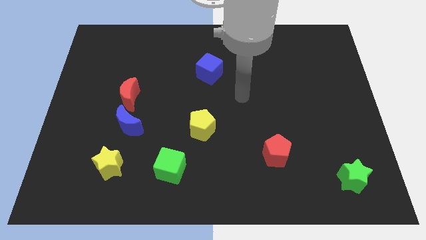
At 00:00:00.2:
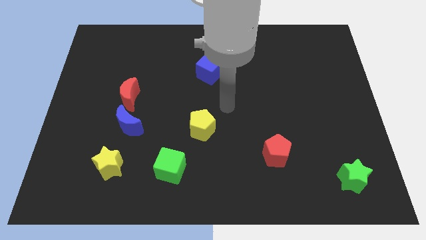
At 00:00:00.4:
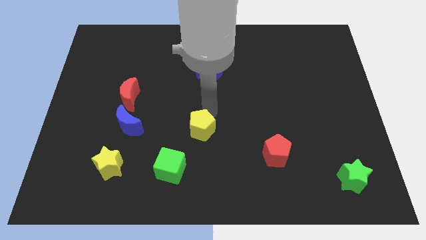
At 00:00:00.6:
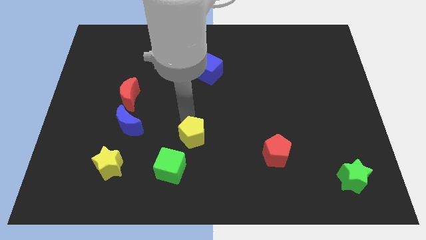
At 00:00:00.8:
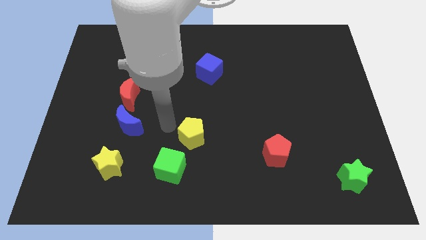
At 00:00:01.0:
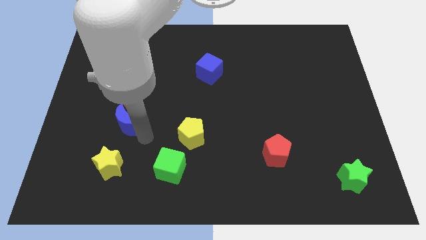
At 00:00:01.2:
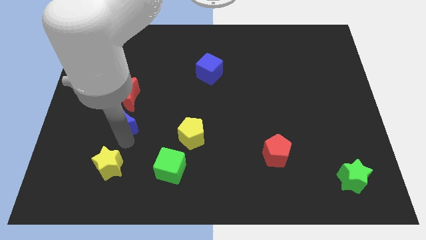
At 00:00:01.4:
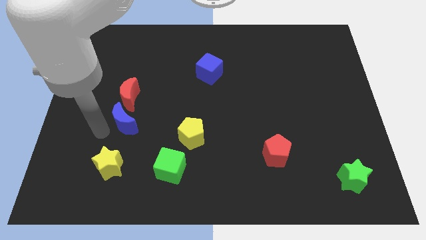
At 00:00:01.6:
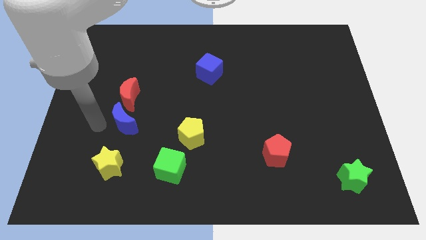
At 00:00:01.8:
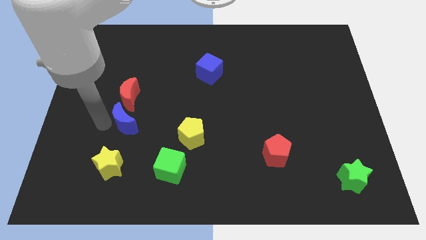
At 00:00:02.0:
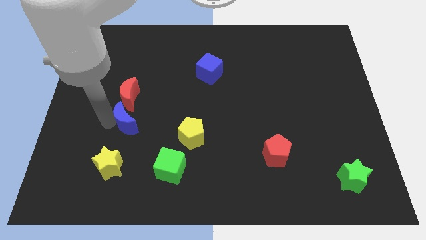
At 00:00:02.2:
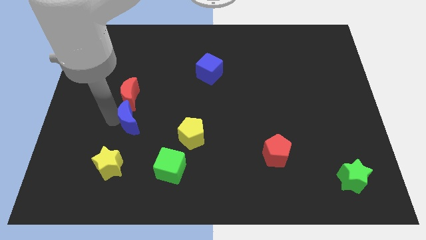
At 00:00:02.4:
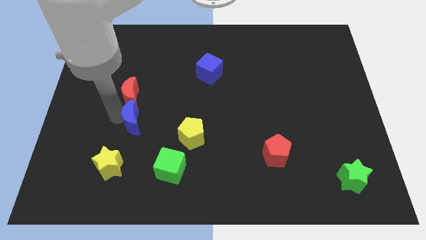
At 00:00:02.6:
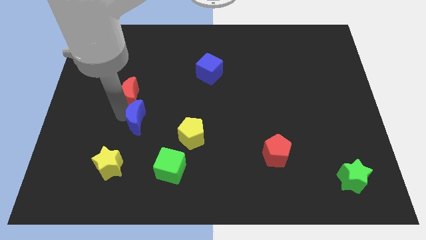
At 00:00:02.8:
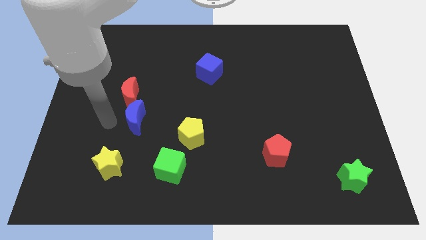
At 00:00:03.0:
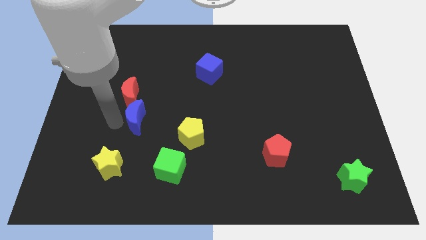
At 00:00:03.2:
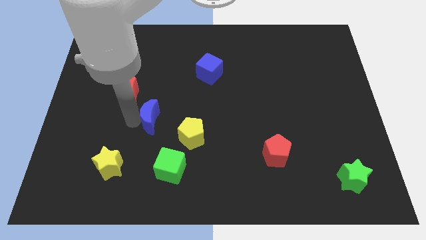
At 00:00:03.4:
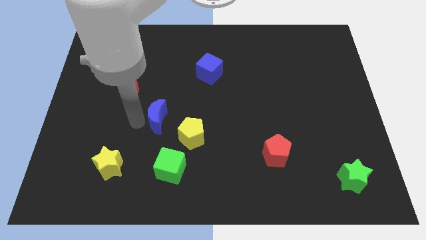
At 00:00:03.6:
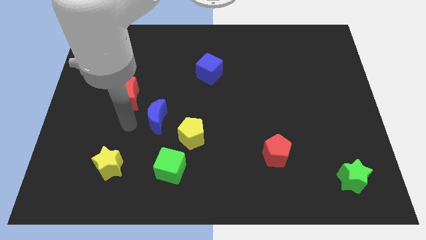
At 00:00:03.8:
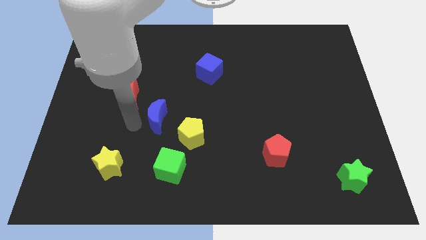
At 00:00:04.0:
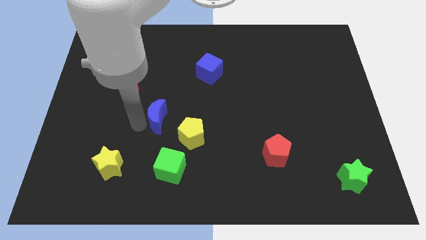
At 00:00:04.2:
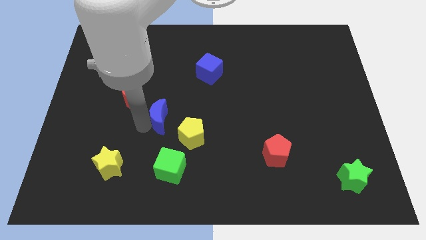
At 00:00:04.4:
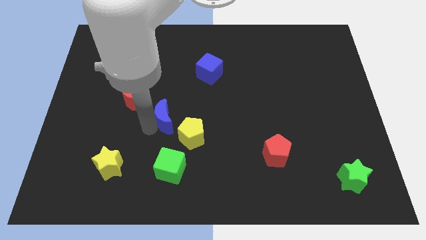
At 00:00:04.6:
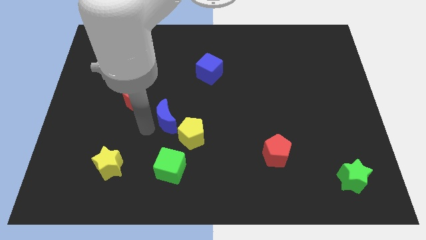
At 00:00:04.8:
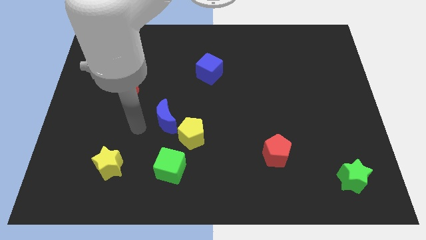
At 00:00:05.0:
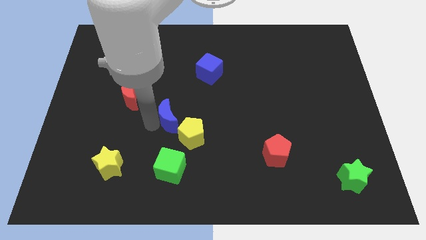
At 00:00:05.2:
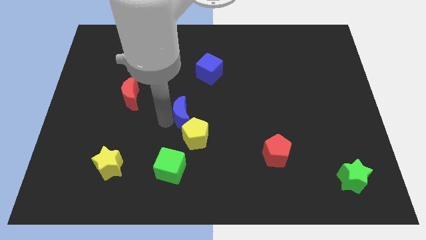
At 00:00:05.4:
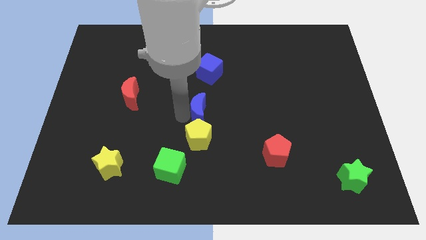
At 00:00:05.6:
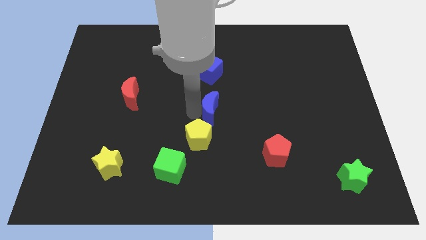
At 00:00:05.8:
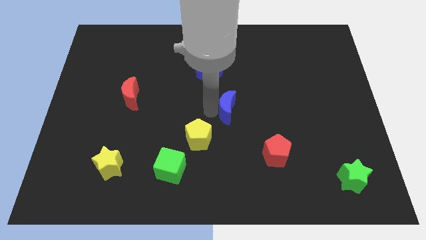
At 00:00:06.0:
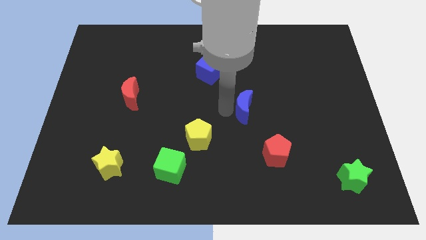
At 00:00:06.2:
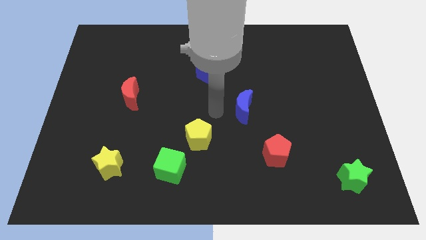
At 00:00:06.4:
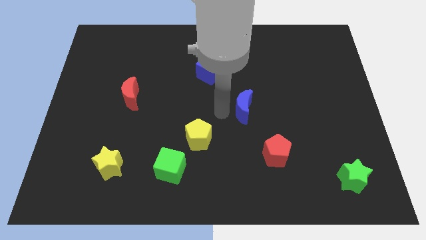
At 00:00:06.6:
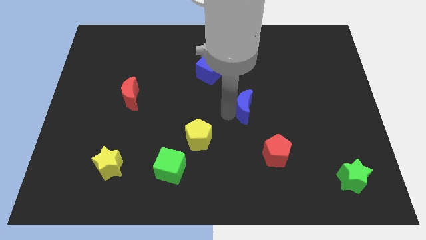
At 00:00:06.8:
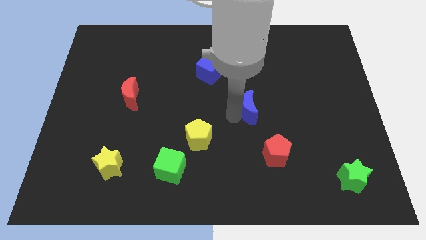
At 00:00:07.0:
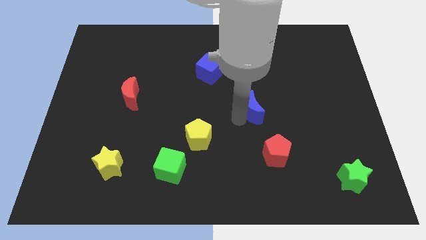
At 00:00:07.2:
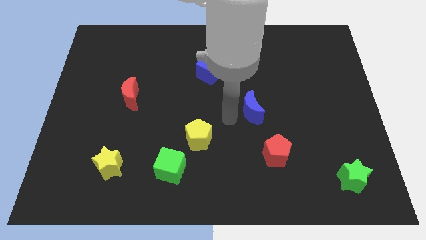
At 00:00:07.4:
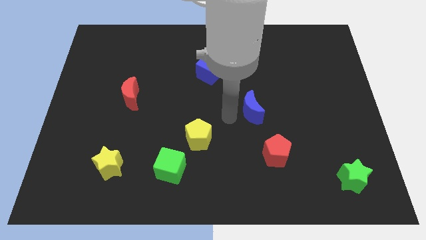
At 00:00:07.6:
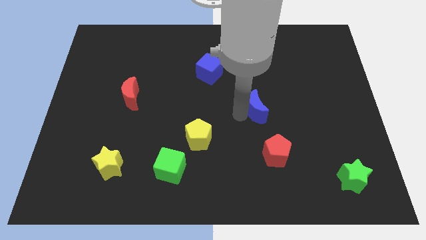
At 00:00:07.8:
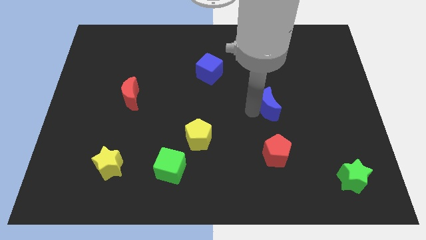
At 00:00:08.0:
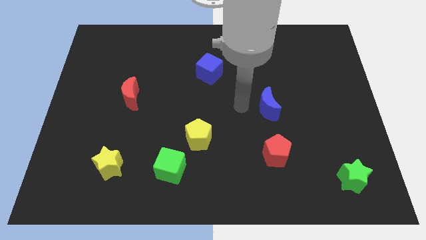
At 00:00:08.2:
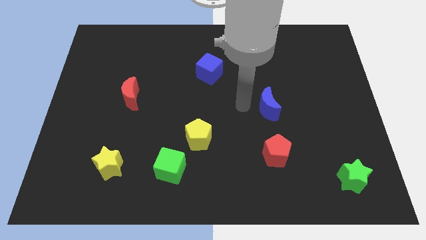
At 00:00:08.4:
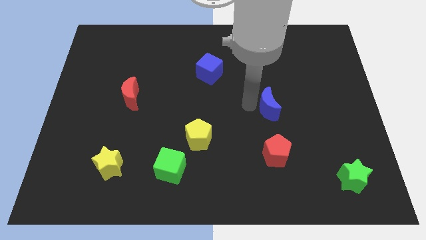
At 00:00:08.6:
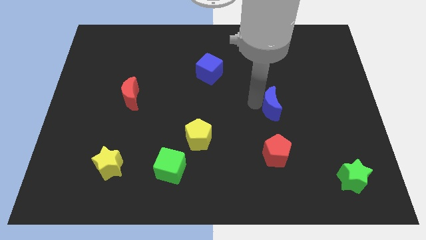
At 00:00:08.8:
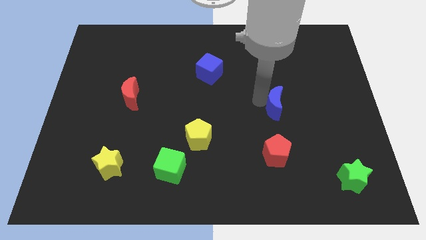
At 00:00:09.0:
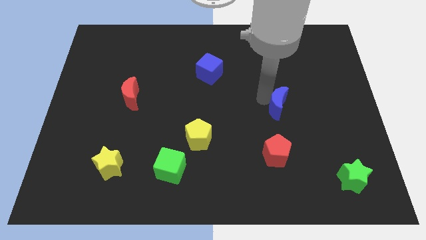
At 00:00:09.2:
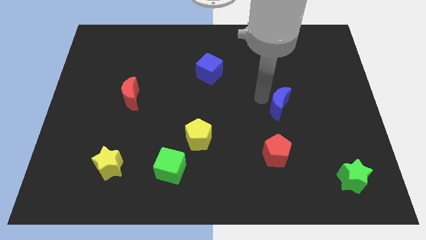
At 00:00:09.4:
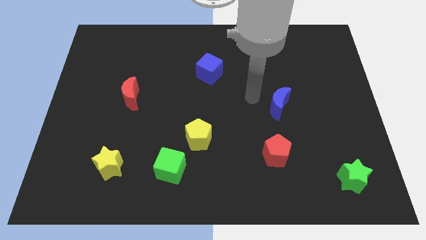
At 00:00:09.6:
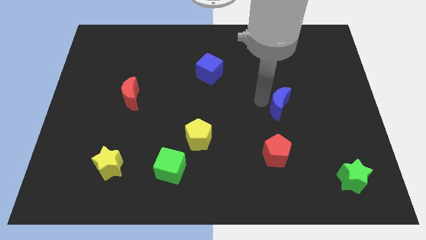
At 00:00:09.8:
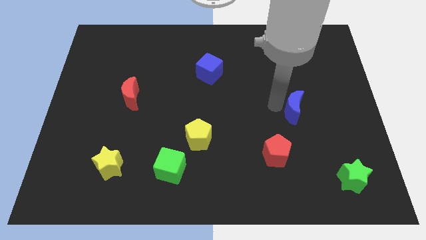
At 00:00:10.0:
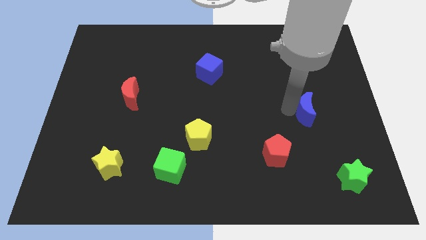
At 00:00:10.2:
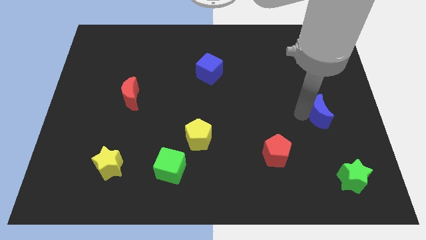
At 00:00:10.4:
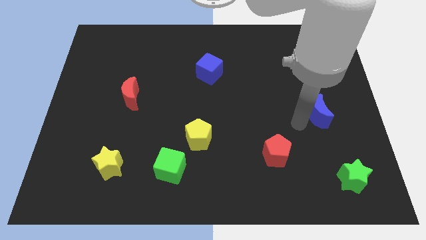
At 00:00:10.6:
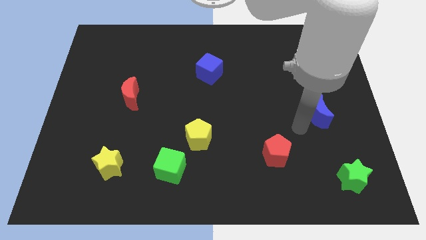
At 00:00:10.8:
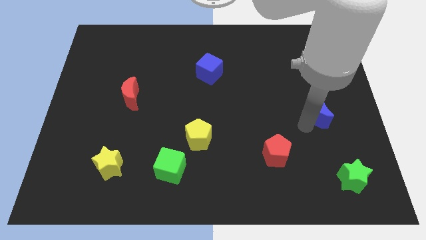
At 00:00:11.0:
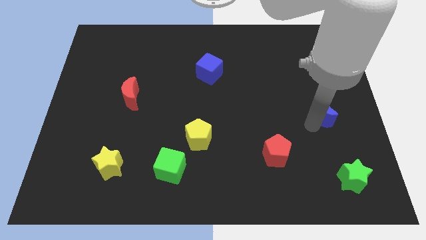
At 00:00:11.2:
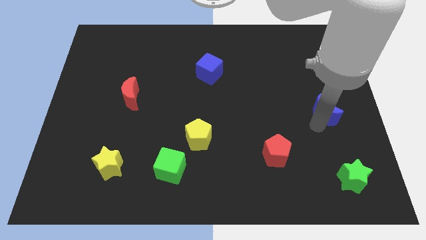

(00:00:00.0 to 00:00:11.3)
put the blue moon to the right side

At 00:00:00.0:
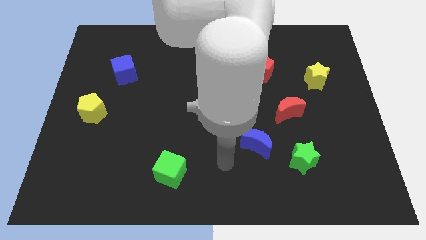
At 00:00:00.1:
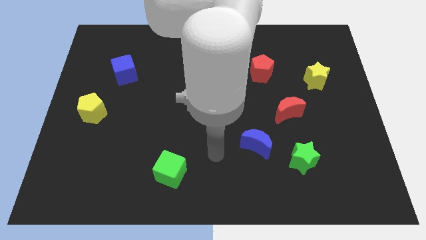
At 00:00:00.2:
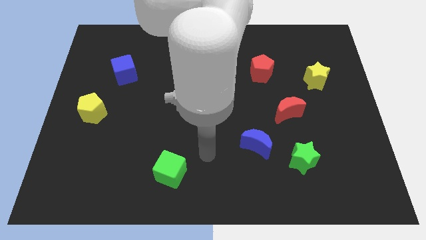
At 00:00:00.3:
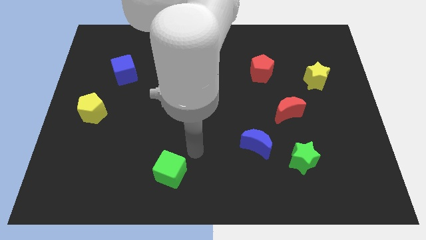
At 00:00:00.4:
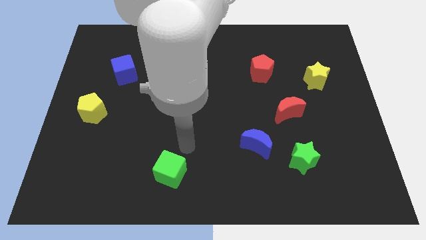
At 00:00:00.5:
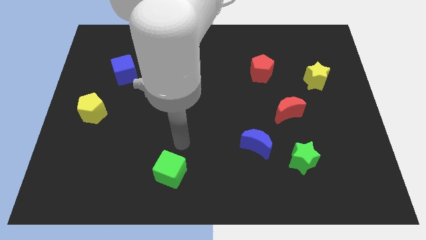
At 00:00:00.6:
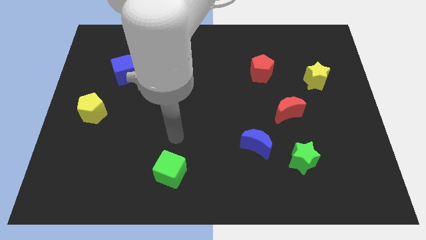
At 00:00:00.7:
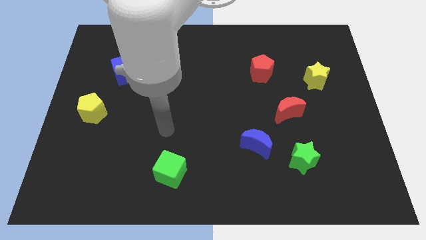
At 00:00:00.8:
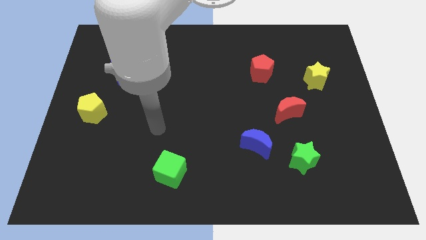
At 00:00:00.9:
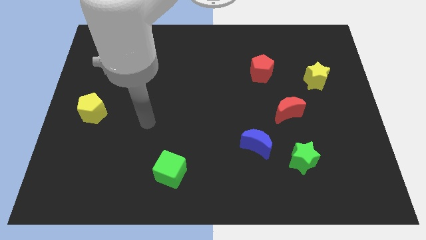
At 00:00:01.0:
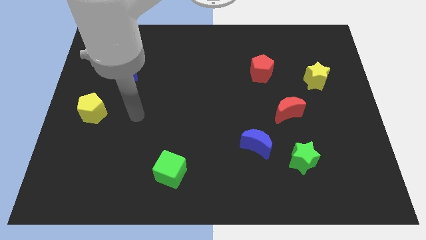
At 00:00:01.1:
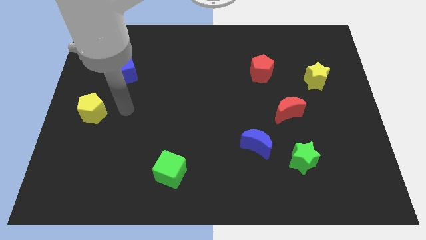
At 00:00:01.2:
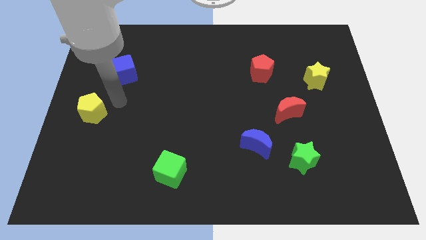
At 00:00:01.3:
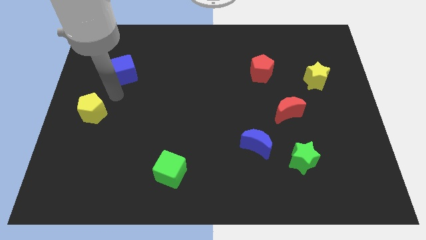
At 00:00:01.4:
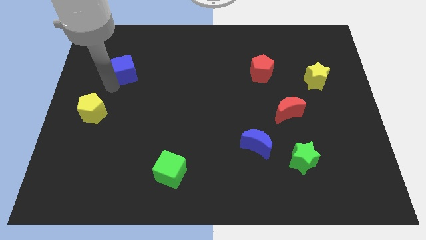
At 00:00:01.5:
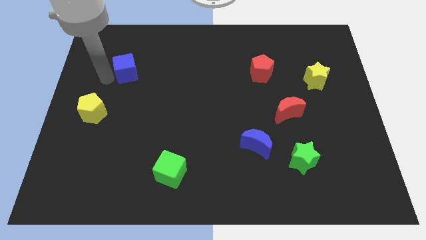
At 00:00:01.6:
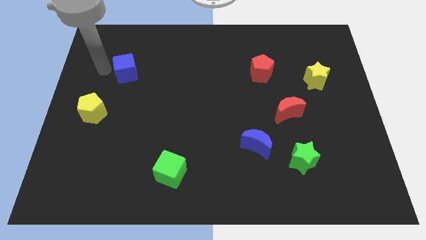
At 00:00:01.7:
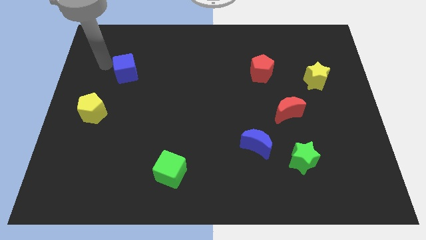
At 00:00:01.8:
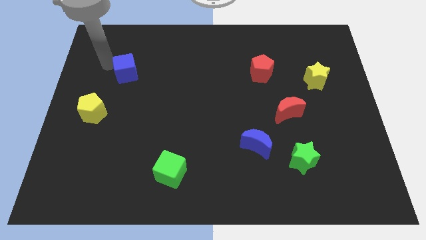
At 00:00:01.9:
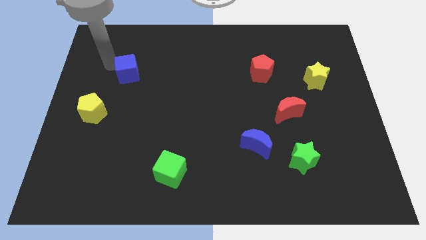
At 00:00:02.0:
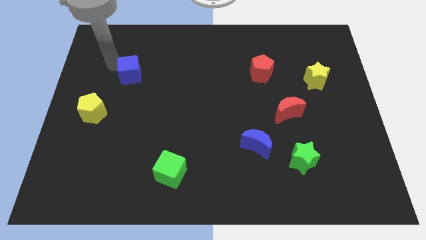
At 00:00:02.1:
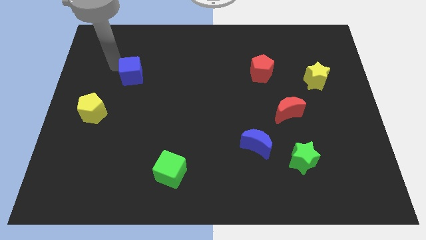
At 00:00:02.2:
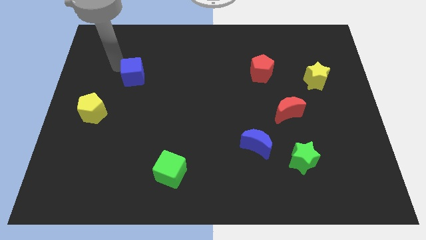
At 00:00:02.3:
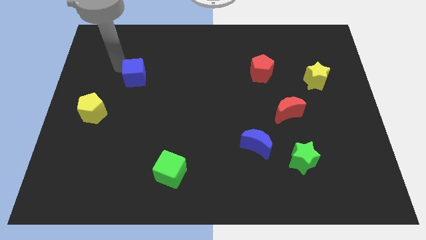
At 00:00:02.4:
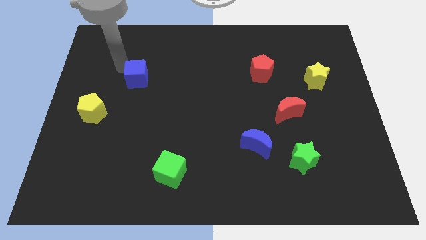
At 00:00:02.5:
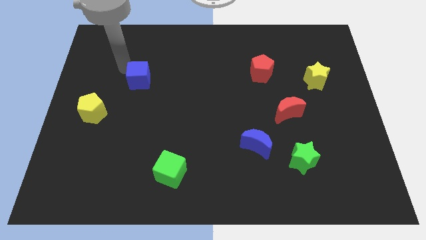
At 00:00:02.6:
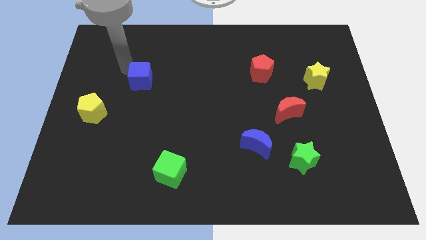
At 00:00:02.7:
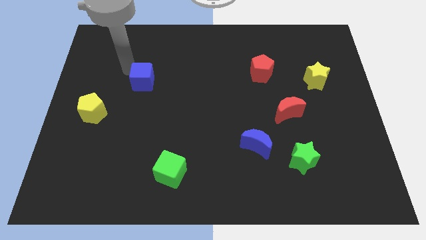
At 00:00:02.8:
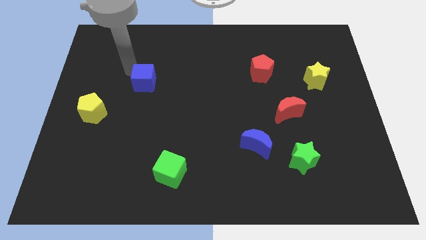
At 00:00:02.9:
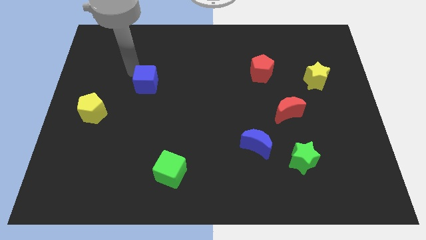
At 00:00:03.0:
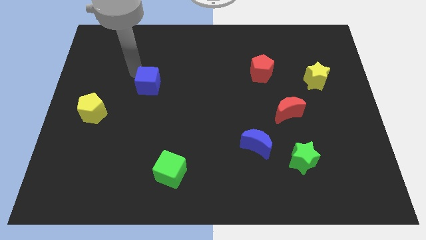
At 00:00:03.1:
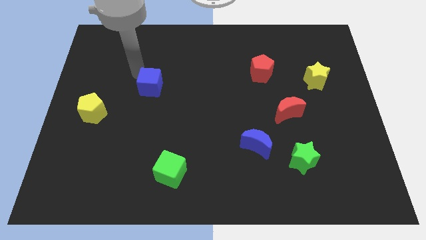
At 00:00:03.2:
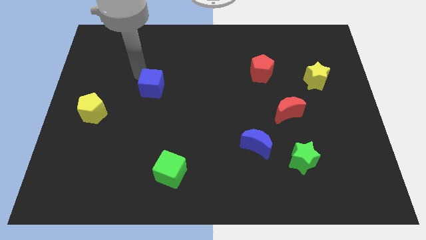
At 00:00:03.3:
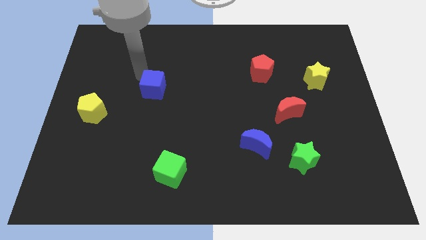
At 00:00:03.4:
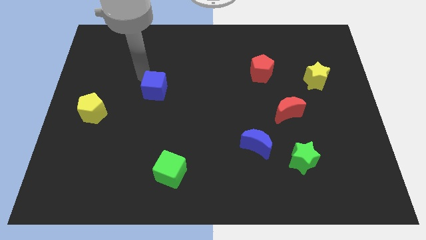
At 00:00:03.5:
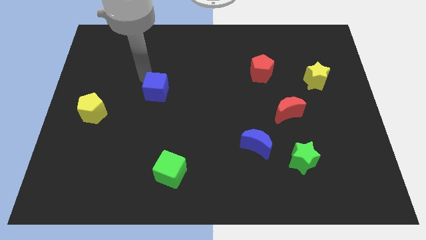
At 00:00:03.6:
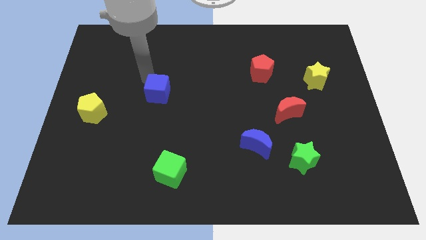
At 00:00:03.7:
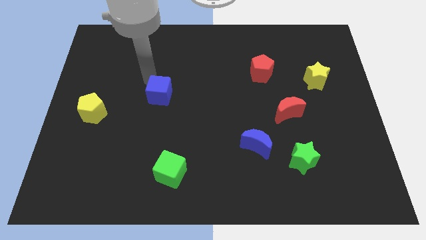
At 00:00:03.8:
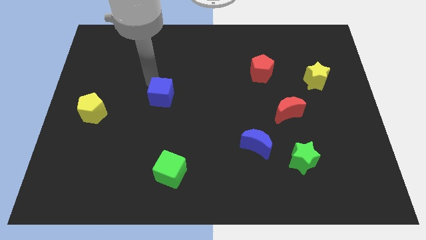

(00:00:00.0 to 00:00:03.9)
move the blue cube to the center of the board
